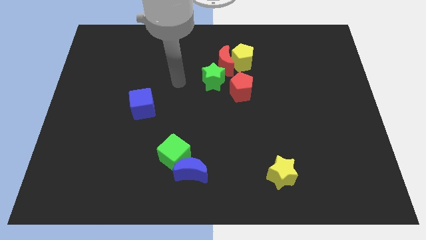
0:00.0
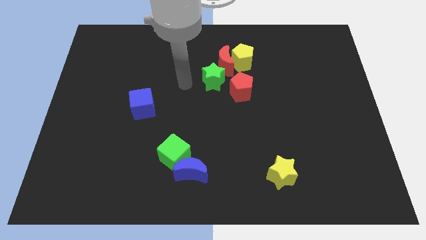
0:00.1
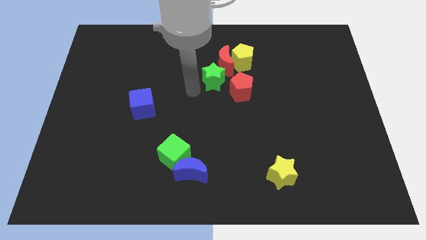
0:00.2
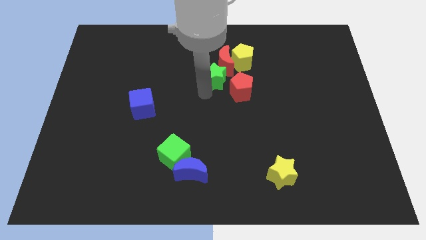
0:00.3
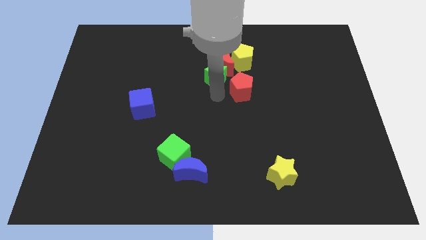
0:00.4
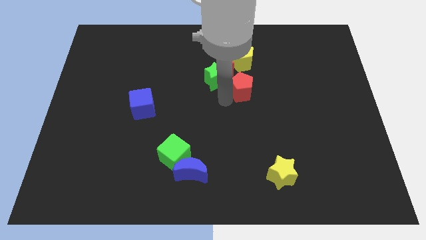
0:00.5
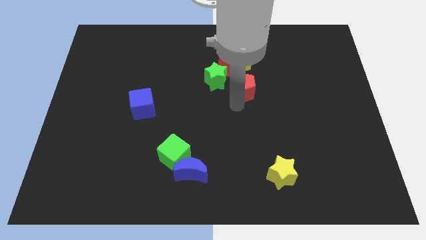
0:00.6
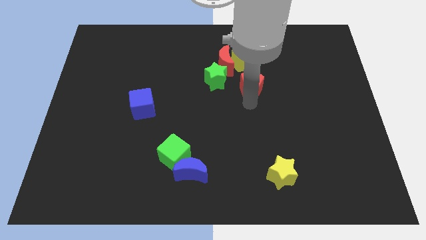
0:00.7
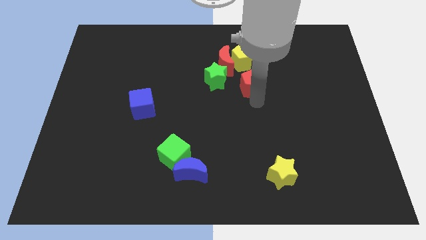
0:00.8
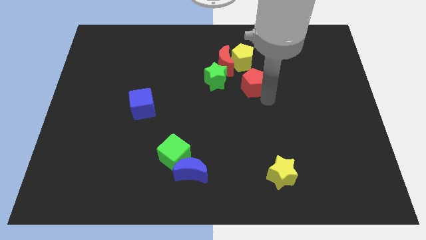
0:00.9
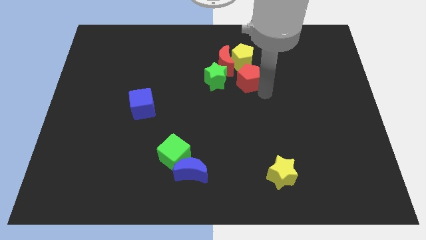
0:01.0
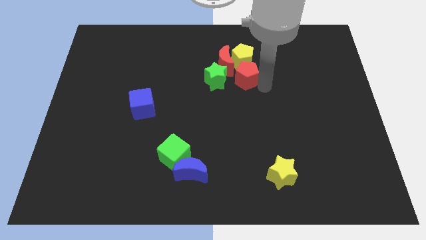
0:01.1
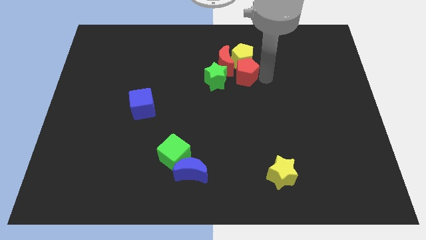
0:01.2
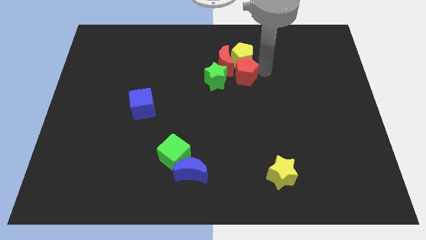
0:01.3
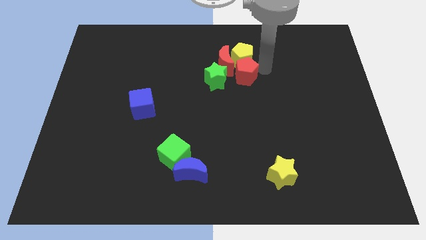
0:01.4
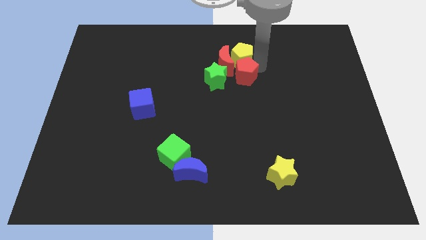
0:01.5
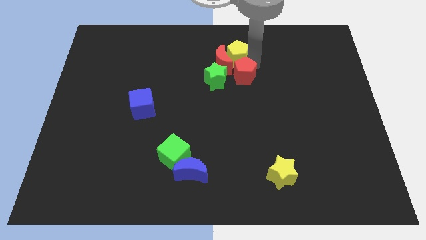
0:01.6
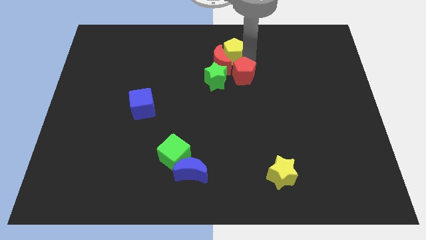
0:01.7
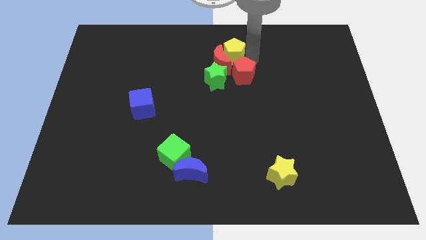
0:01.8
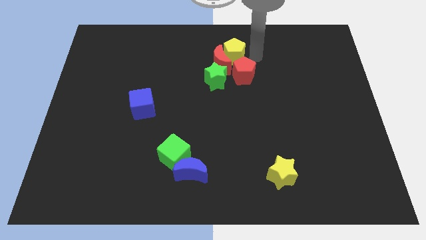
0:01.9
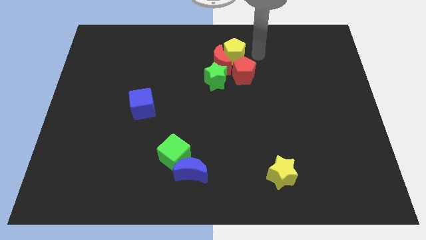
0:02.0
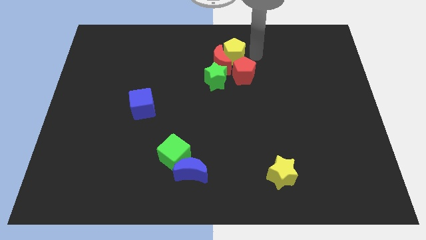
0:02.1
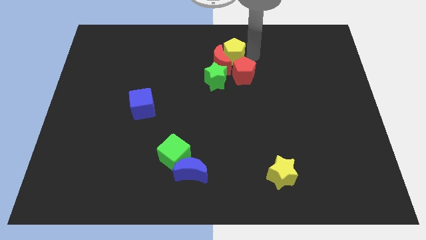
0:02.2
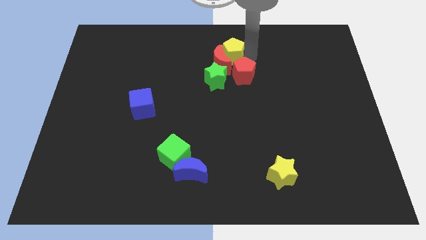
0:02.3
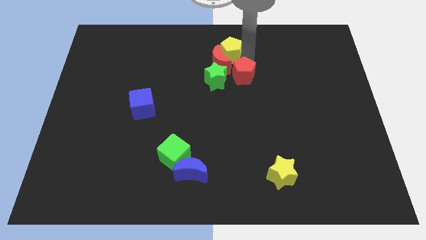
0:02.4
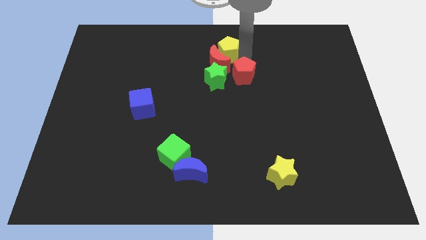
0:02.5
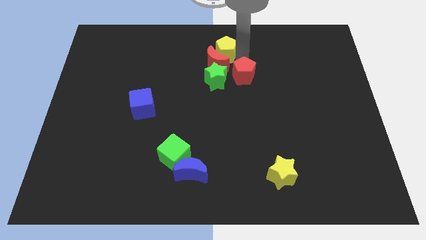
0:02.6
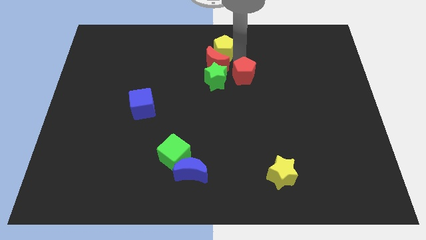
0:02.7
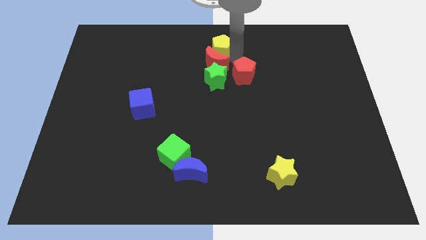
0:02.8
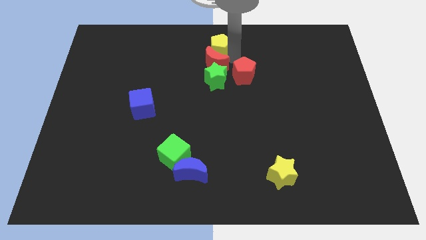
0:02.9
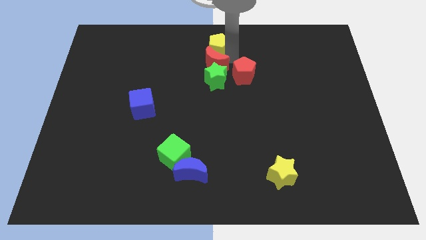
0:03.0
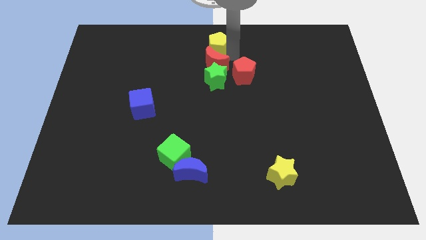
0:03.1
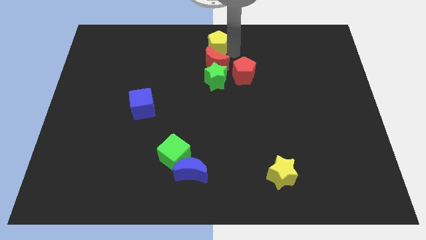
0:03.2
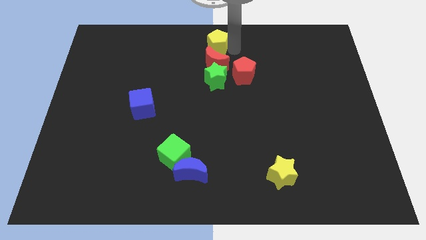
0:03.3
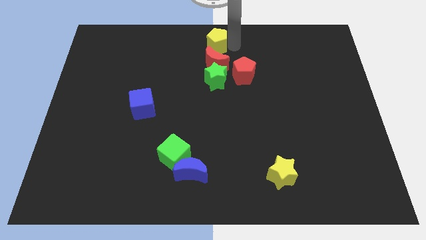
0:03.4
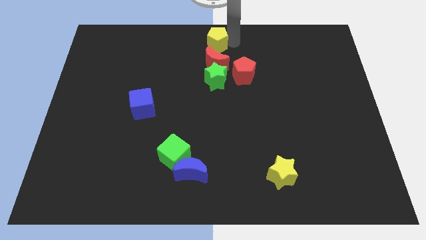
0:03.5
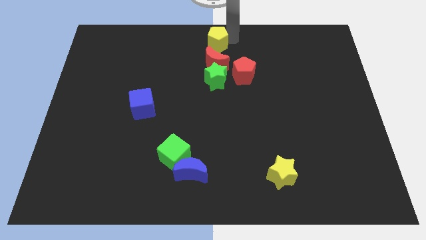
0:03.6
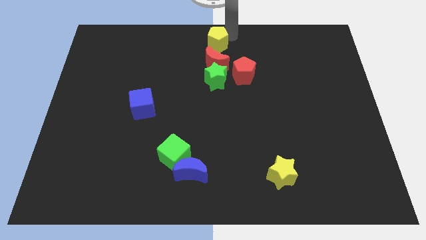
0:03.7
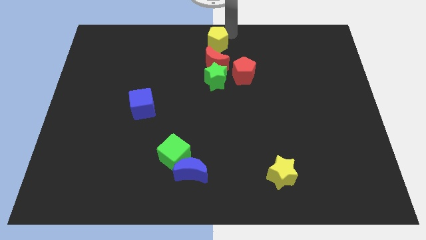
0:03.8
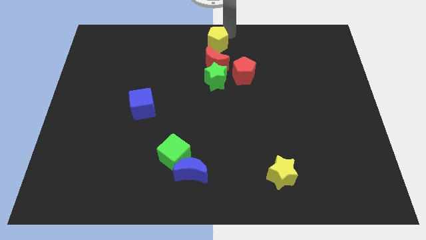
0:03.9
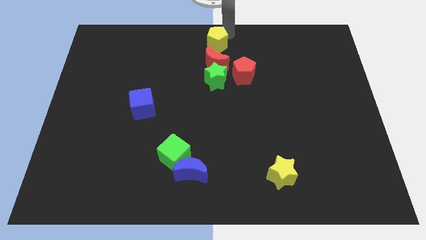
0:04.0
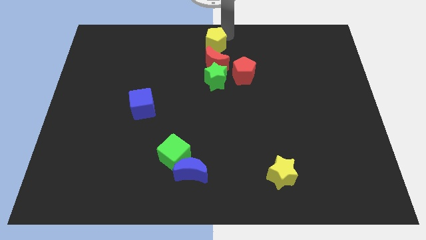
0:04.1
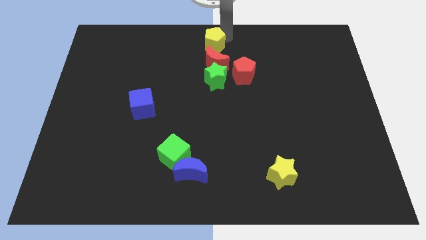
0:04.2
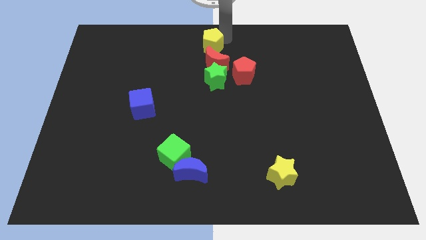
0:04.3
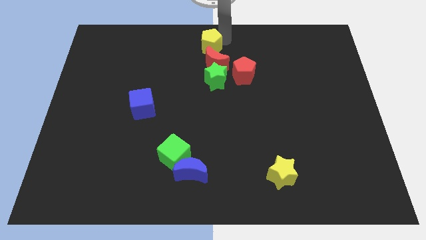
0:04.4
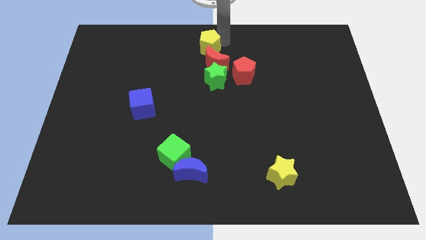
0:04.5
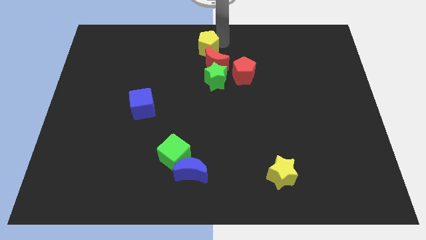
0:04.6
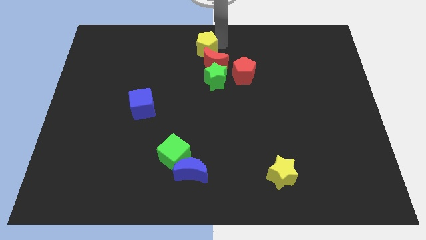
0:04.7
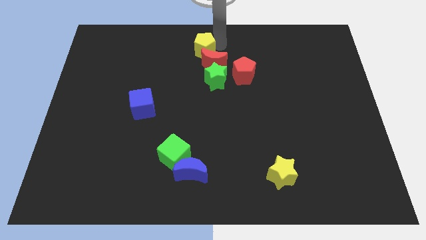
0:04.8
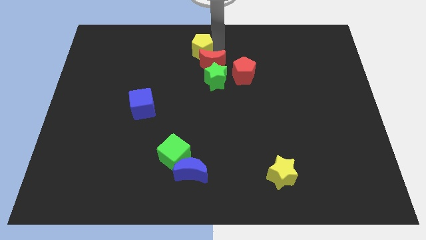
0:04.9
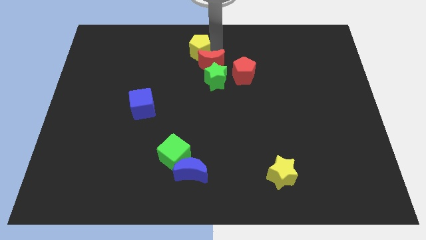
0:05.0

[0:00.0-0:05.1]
push the yellow pentagon diagonally up and to the left of the green star

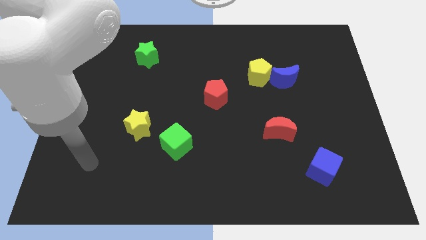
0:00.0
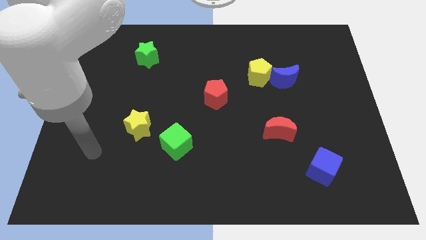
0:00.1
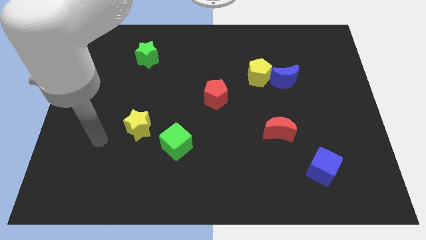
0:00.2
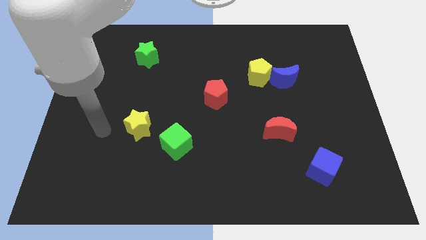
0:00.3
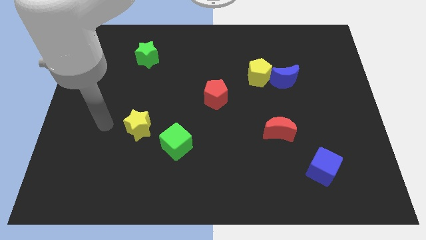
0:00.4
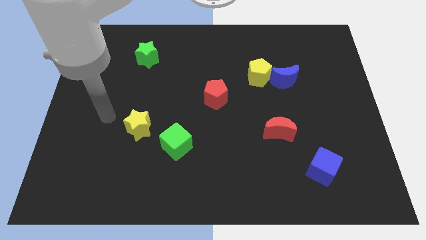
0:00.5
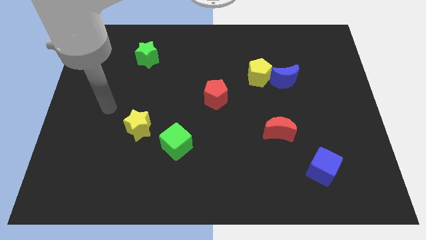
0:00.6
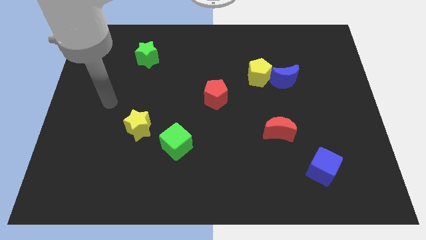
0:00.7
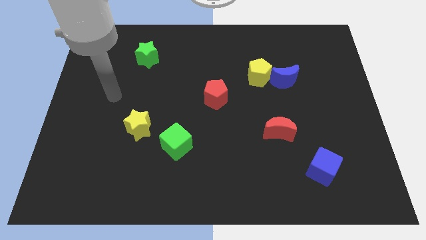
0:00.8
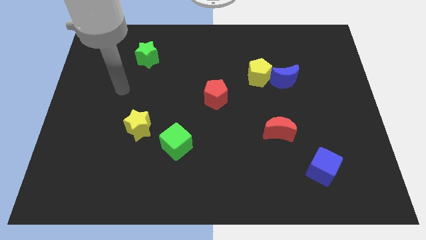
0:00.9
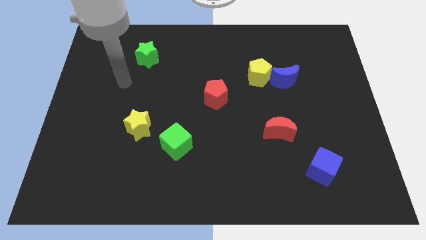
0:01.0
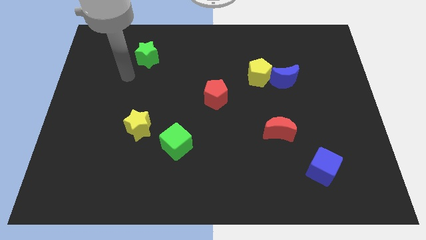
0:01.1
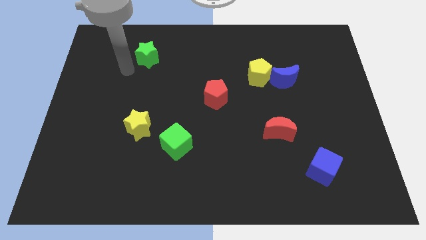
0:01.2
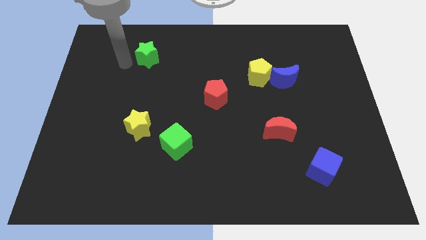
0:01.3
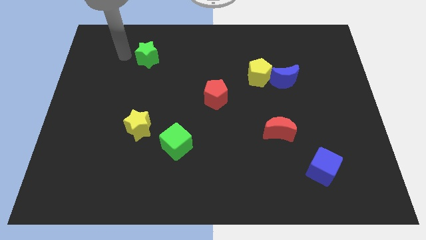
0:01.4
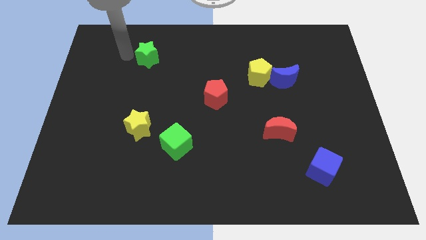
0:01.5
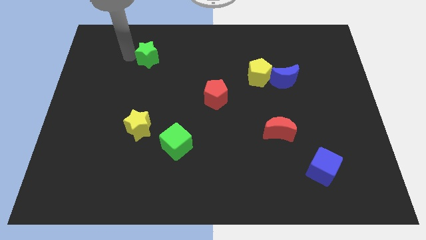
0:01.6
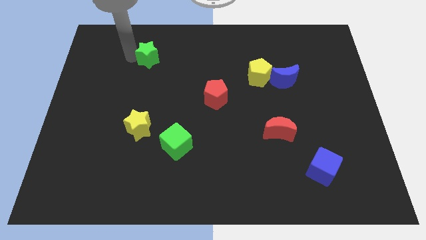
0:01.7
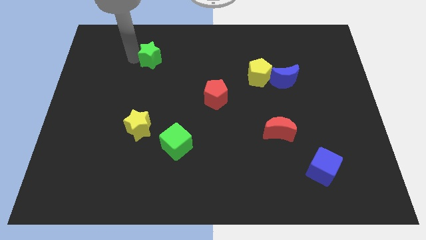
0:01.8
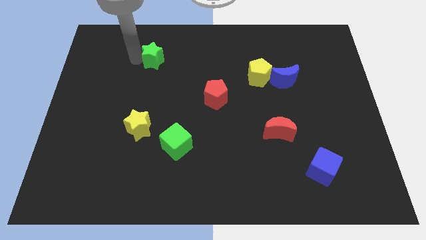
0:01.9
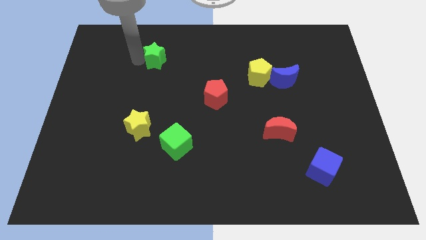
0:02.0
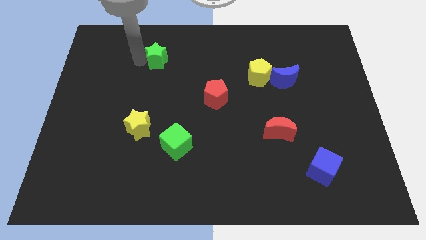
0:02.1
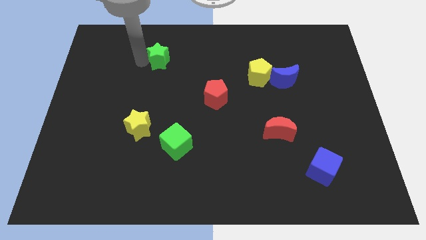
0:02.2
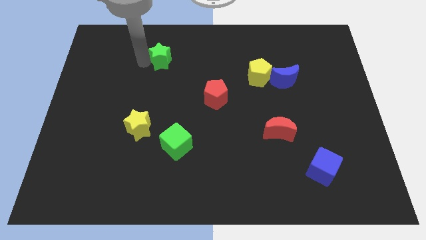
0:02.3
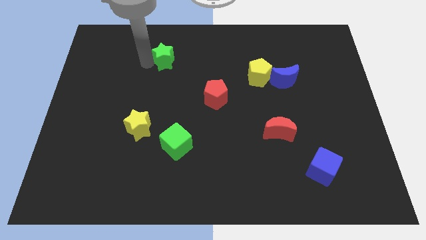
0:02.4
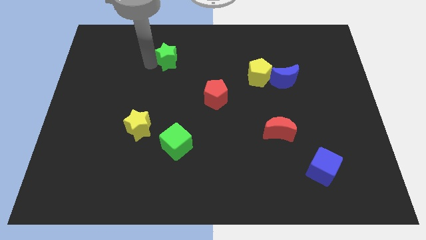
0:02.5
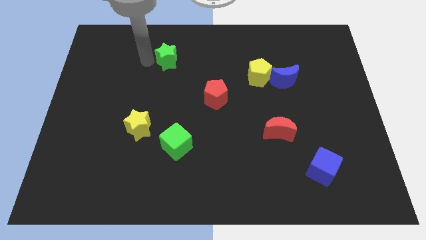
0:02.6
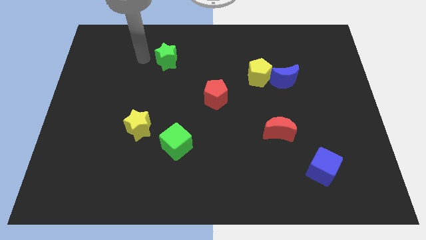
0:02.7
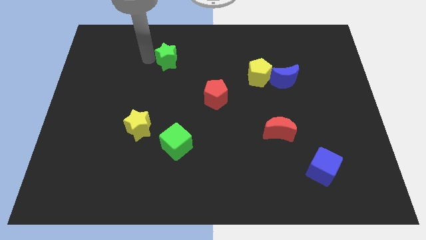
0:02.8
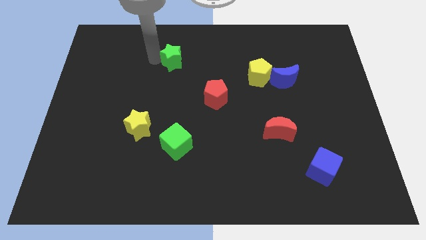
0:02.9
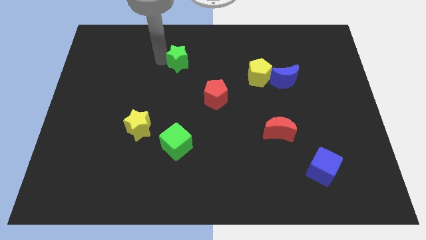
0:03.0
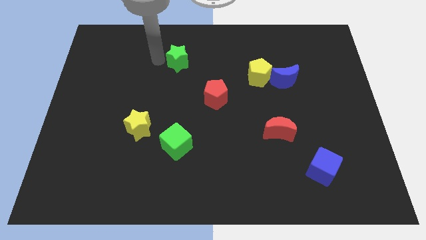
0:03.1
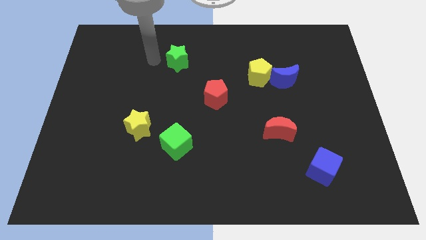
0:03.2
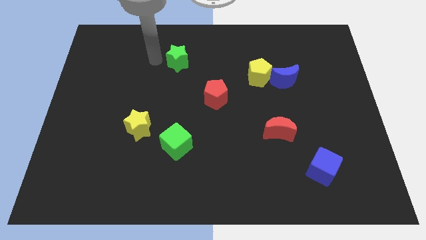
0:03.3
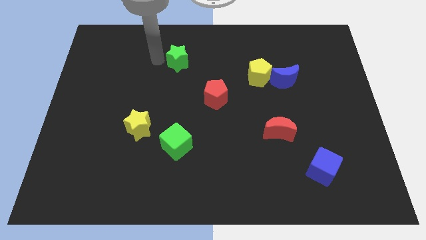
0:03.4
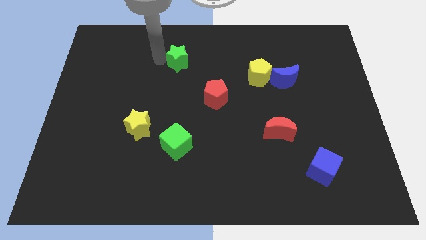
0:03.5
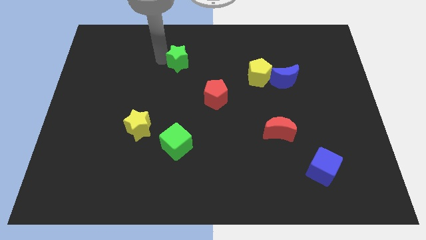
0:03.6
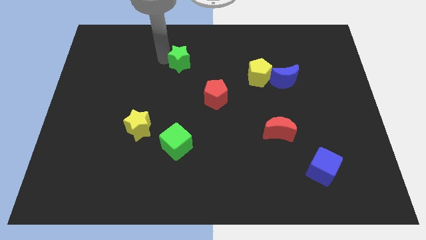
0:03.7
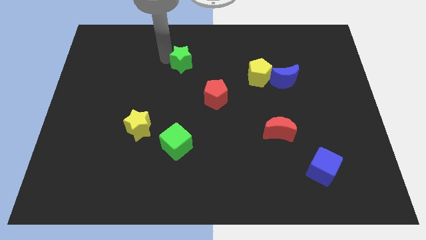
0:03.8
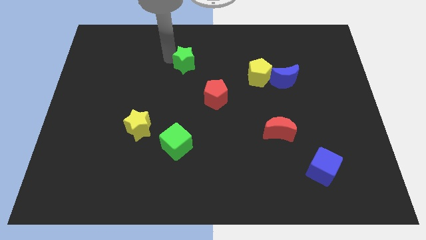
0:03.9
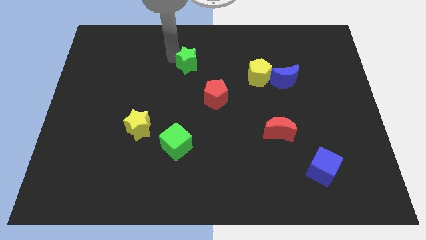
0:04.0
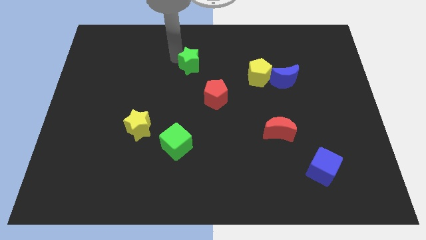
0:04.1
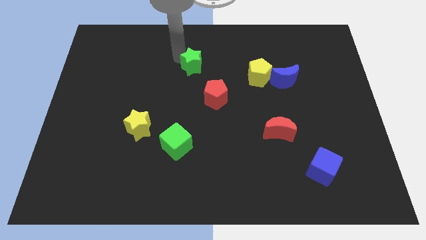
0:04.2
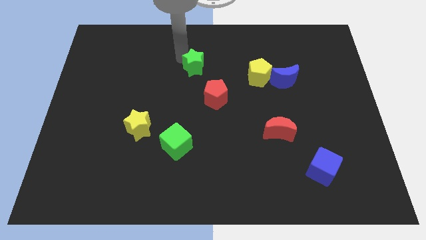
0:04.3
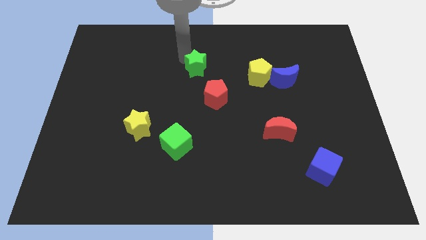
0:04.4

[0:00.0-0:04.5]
slide the green star above the red pentagon
